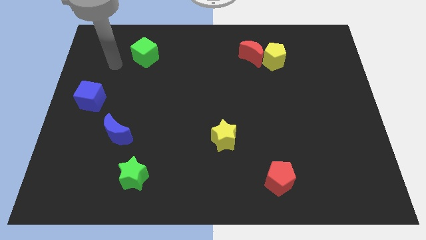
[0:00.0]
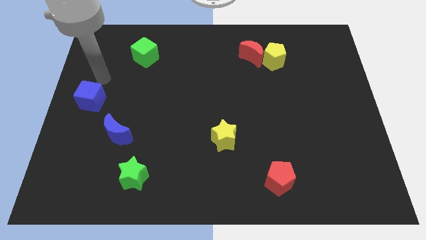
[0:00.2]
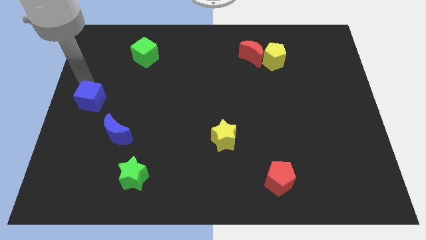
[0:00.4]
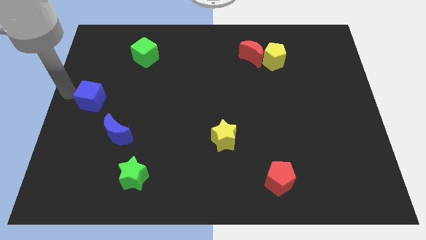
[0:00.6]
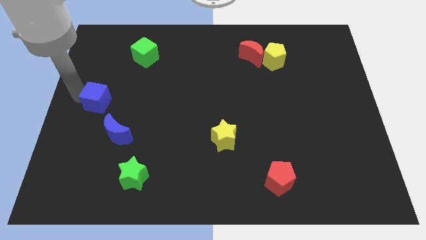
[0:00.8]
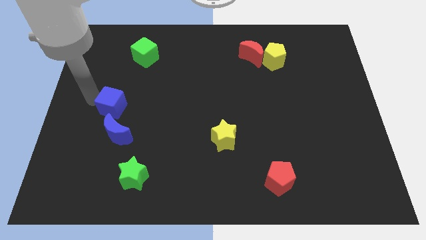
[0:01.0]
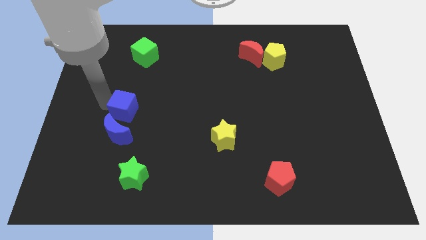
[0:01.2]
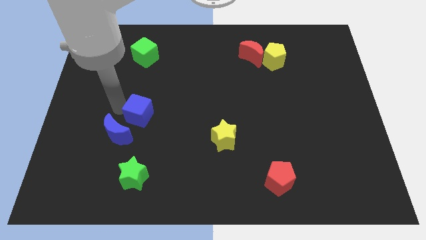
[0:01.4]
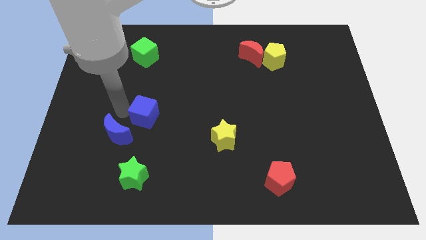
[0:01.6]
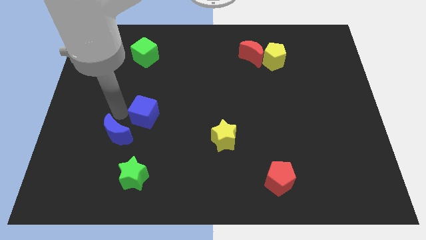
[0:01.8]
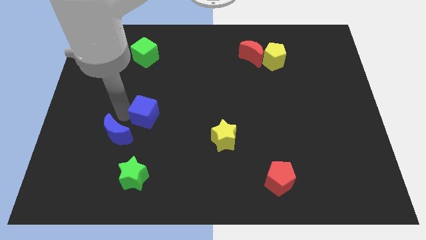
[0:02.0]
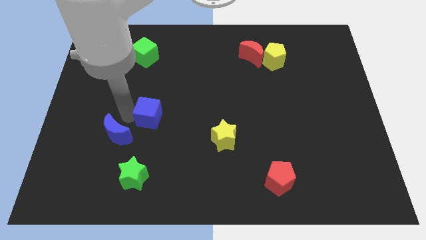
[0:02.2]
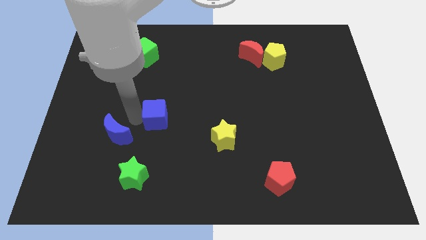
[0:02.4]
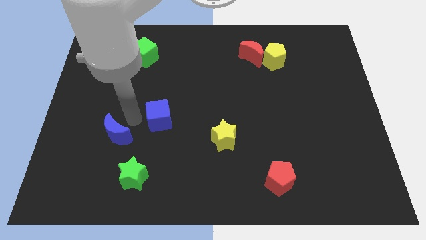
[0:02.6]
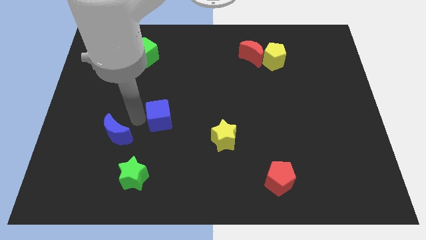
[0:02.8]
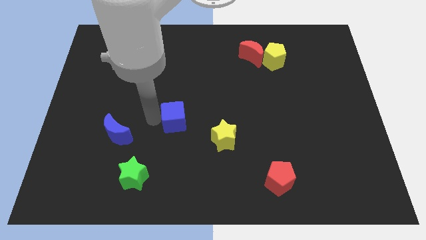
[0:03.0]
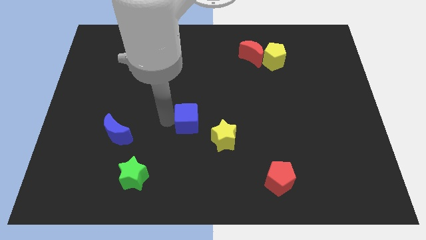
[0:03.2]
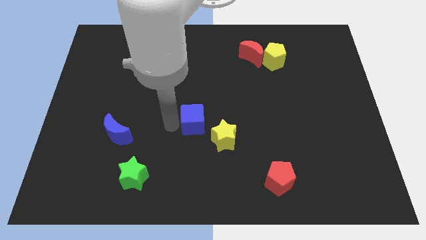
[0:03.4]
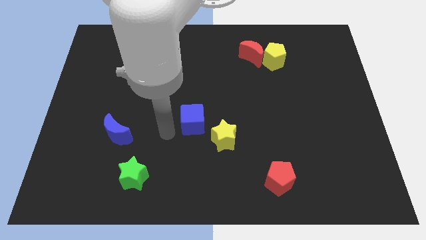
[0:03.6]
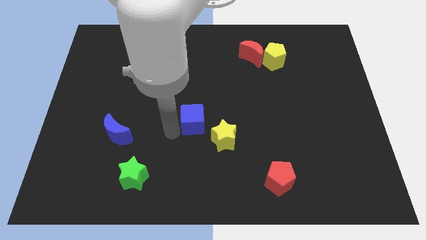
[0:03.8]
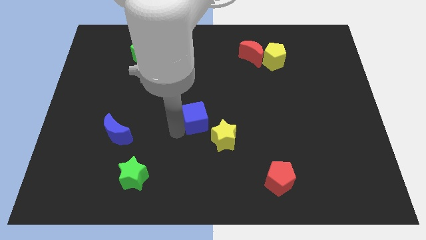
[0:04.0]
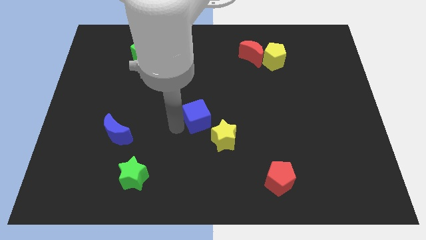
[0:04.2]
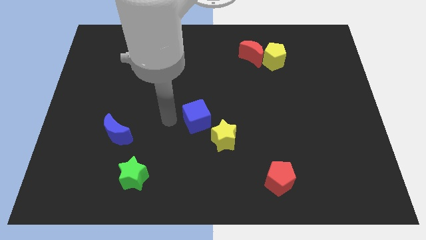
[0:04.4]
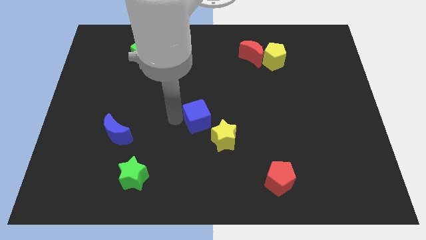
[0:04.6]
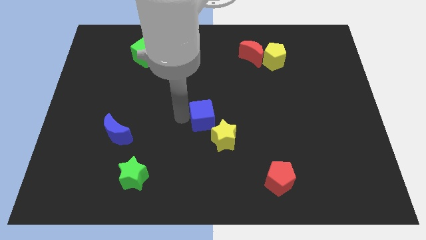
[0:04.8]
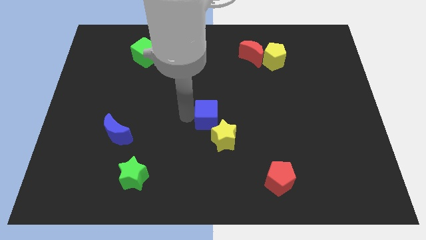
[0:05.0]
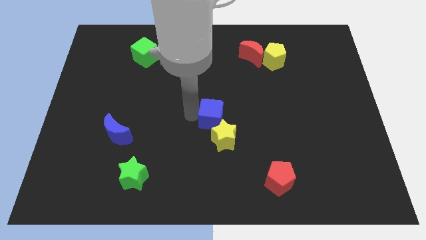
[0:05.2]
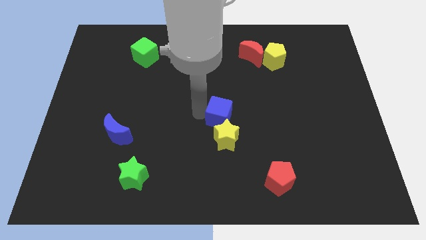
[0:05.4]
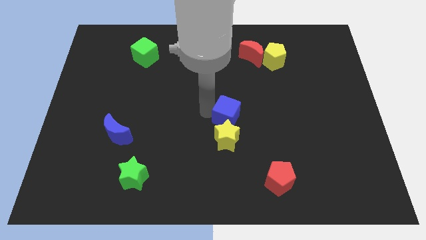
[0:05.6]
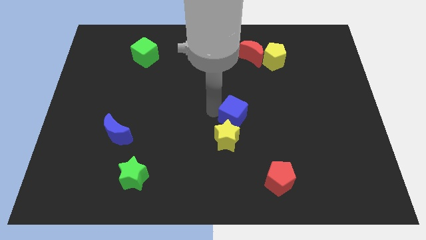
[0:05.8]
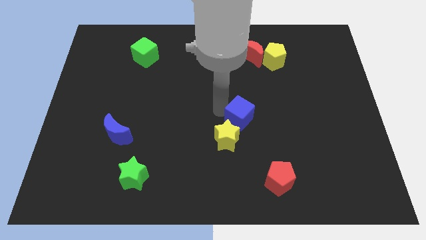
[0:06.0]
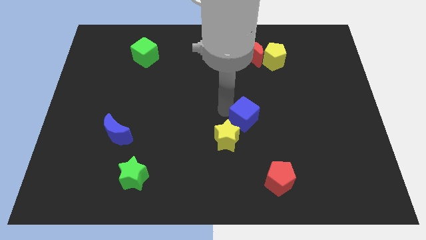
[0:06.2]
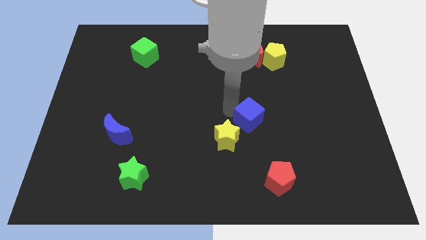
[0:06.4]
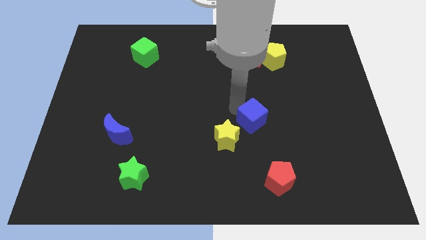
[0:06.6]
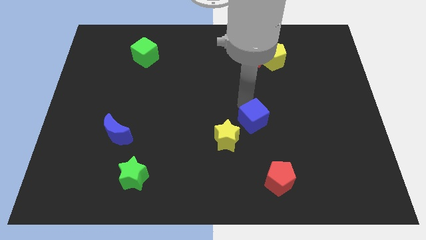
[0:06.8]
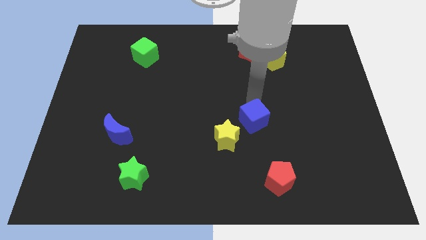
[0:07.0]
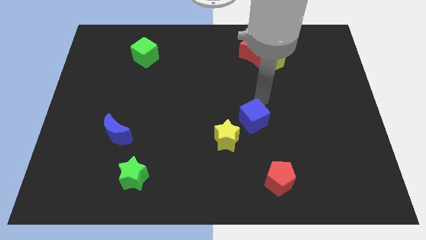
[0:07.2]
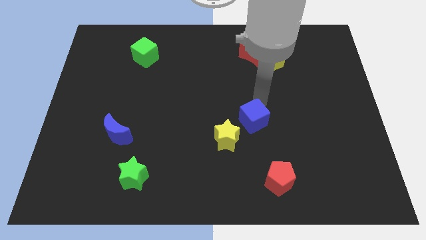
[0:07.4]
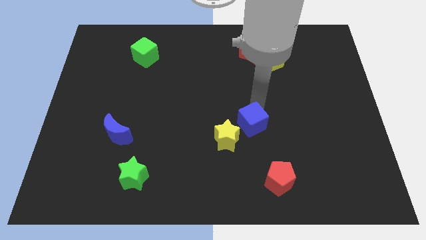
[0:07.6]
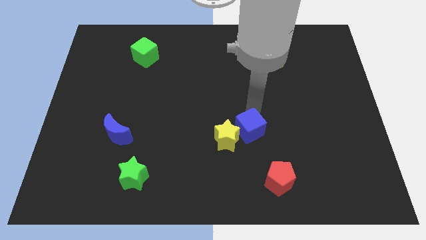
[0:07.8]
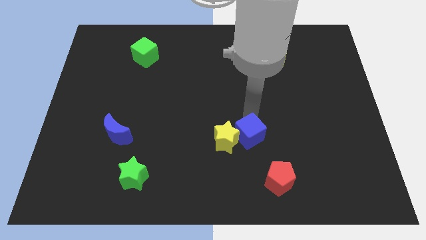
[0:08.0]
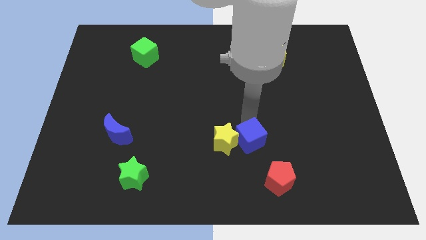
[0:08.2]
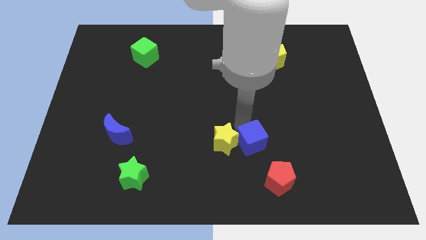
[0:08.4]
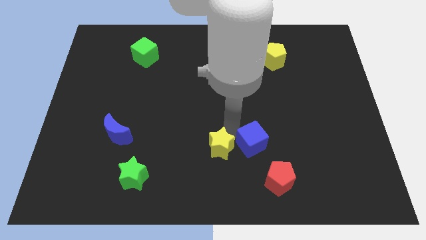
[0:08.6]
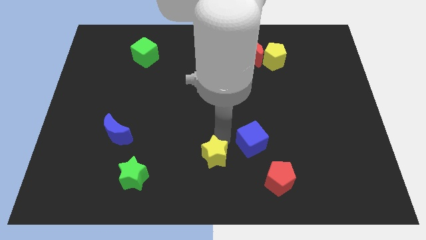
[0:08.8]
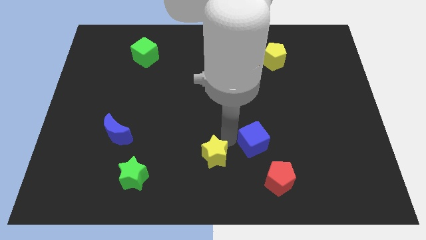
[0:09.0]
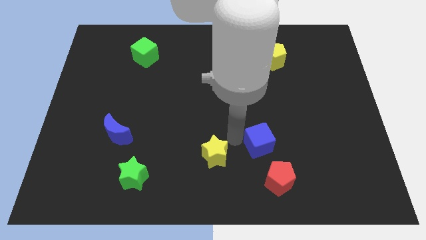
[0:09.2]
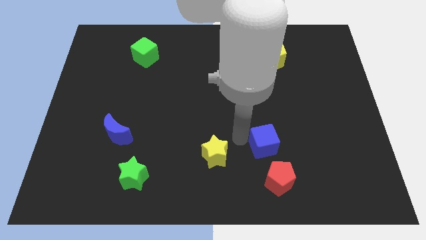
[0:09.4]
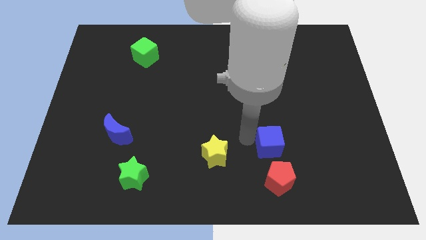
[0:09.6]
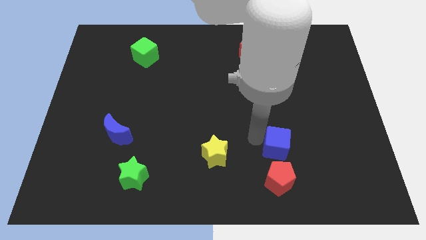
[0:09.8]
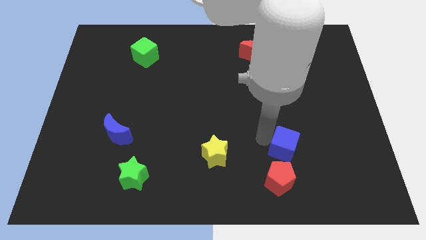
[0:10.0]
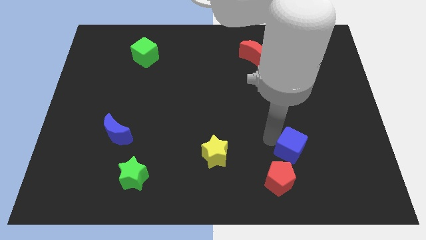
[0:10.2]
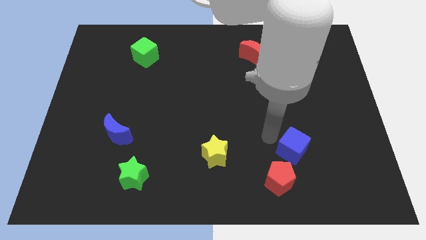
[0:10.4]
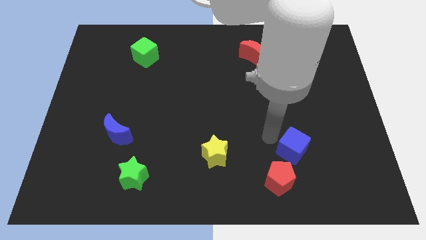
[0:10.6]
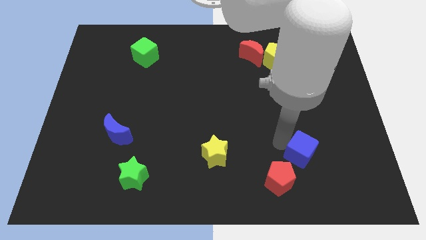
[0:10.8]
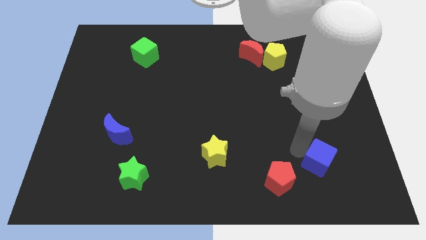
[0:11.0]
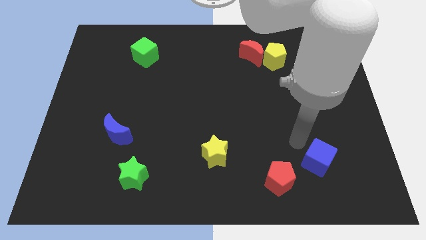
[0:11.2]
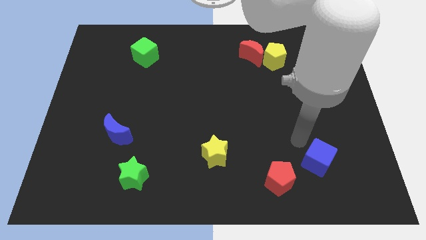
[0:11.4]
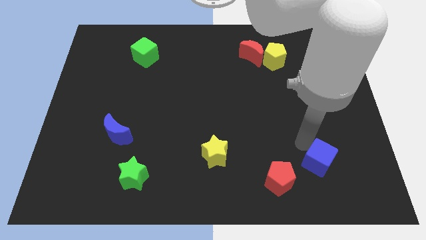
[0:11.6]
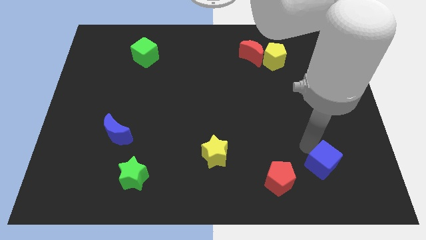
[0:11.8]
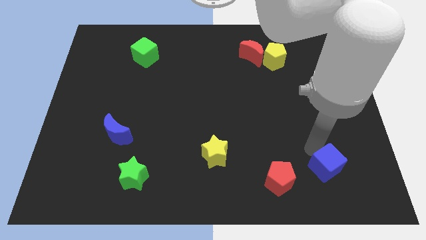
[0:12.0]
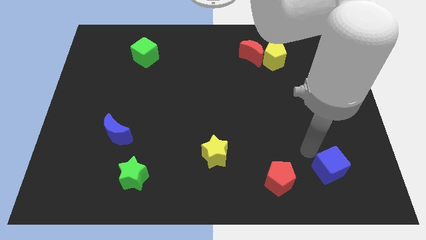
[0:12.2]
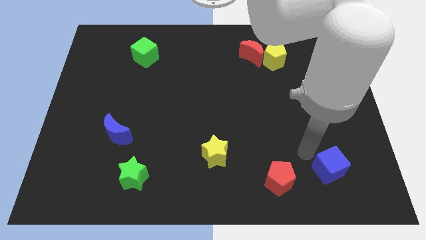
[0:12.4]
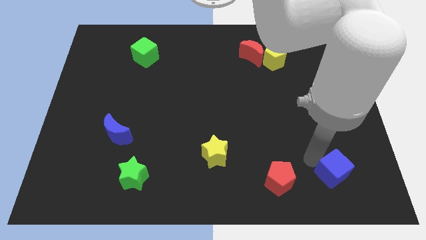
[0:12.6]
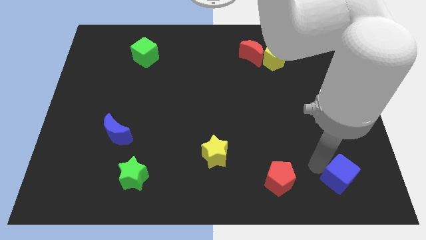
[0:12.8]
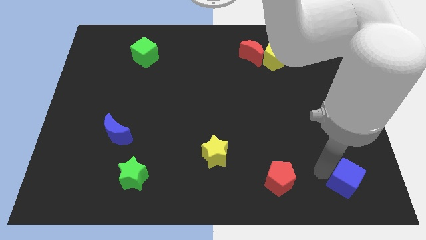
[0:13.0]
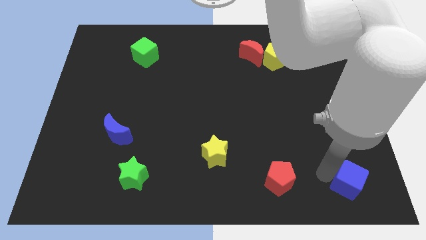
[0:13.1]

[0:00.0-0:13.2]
put the blue cube to the bottom right corner

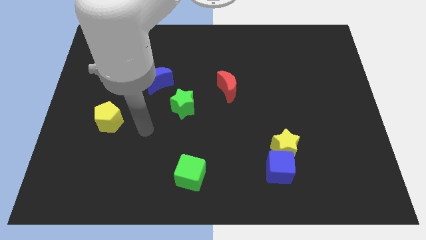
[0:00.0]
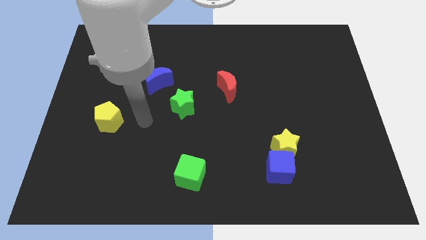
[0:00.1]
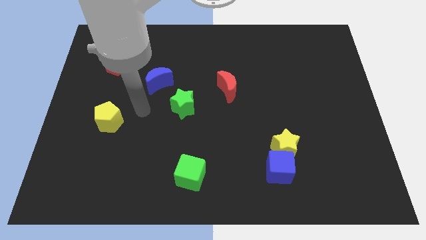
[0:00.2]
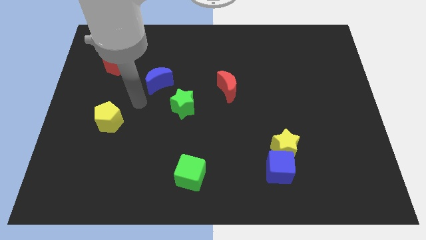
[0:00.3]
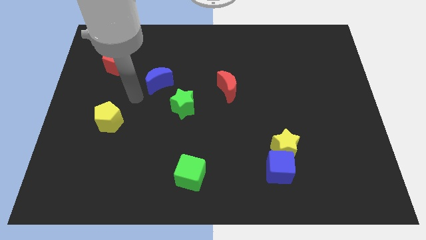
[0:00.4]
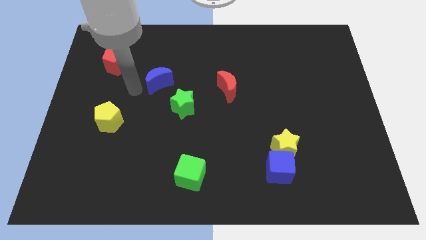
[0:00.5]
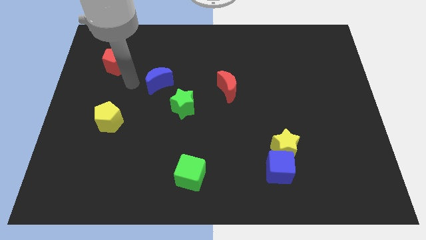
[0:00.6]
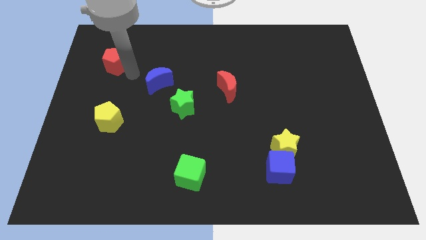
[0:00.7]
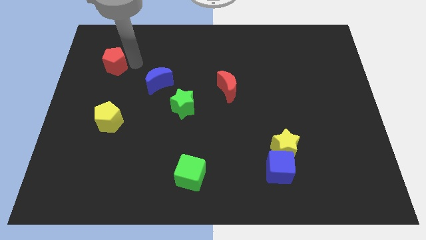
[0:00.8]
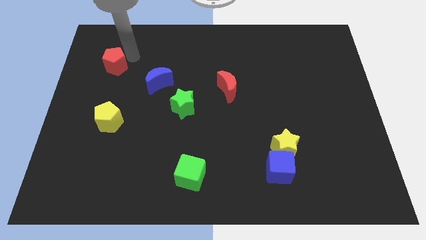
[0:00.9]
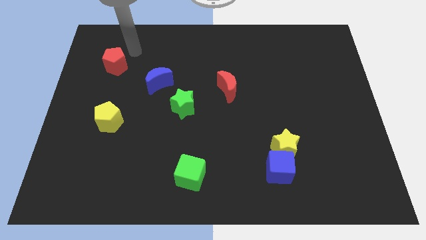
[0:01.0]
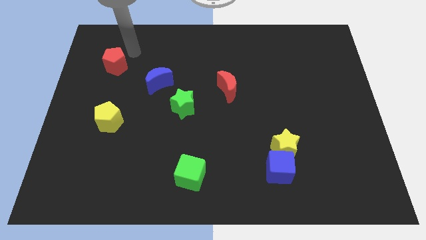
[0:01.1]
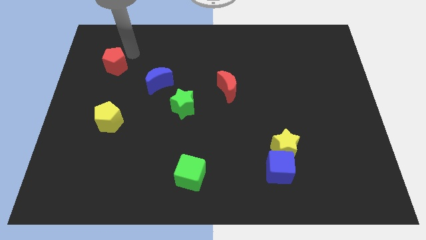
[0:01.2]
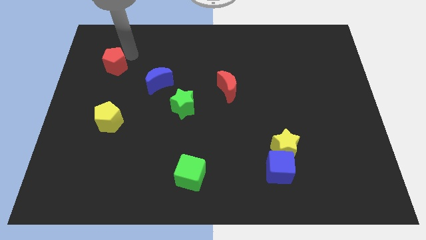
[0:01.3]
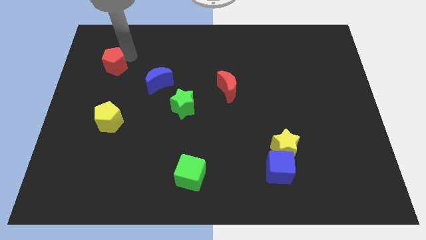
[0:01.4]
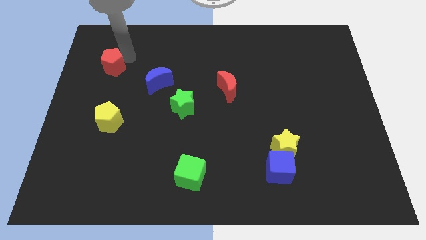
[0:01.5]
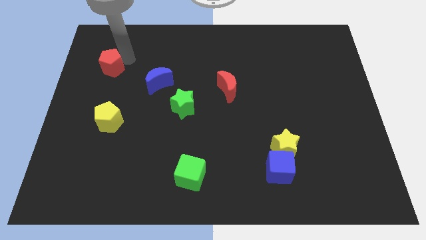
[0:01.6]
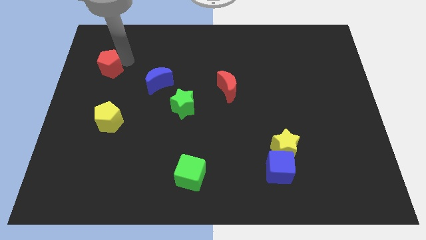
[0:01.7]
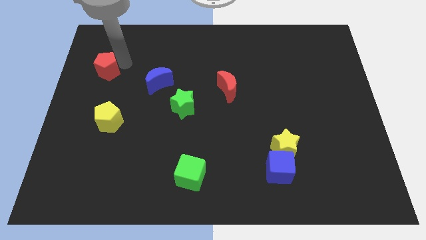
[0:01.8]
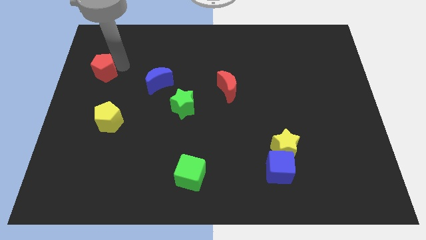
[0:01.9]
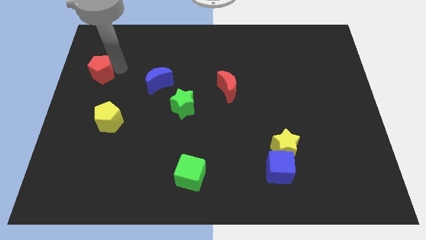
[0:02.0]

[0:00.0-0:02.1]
put the red pentagon to the left side
